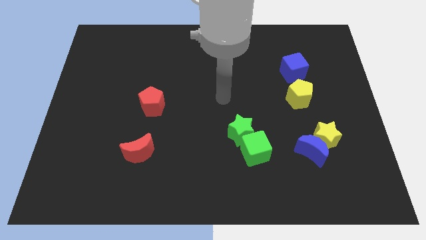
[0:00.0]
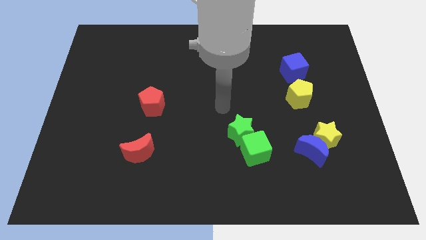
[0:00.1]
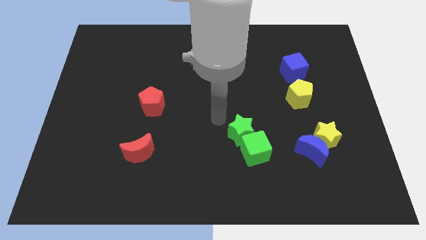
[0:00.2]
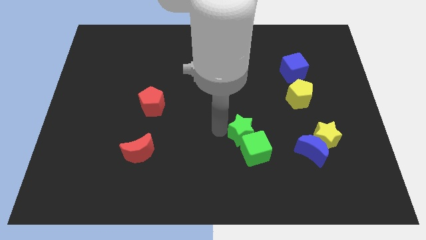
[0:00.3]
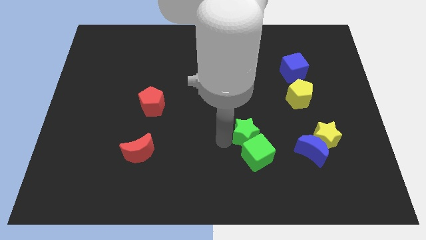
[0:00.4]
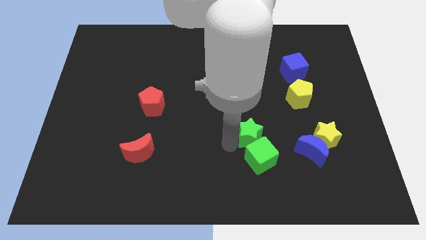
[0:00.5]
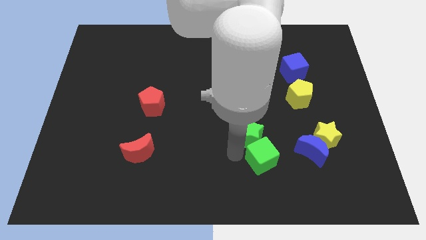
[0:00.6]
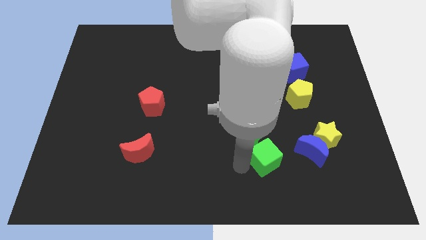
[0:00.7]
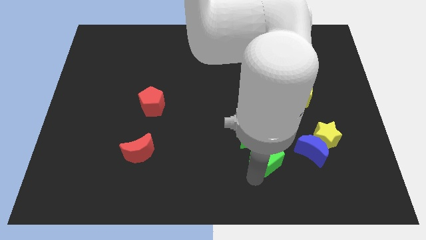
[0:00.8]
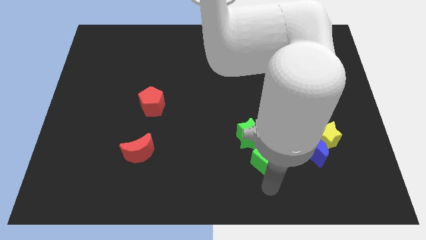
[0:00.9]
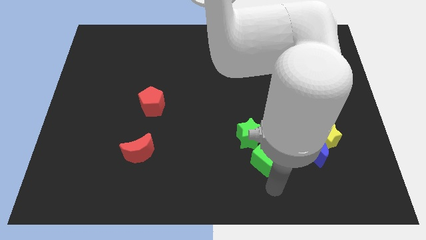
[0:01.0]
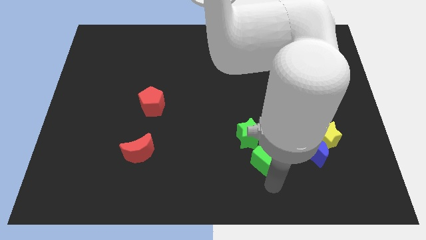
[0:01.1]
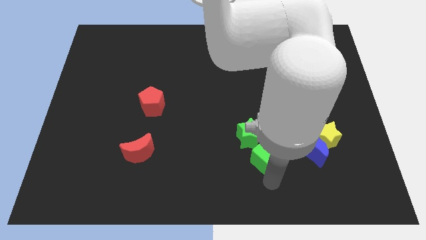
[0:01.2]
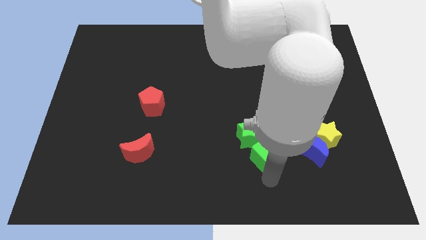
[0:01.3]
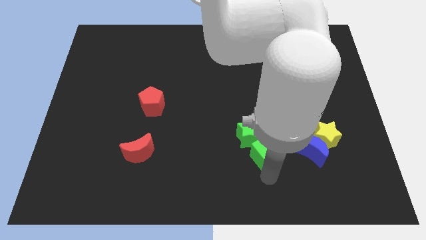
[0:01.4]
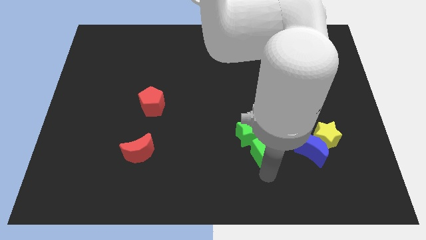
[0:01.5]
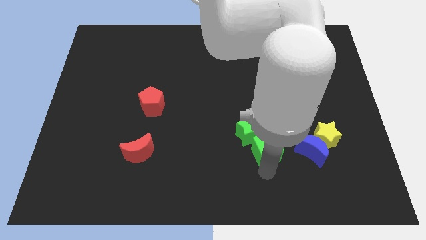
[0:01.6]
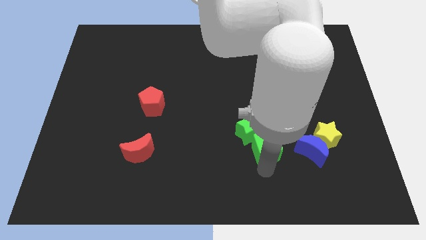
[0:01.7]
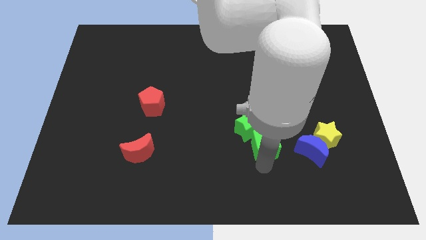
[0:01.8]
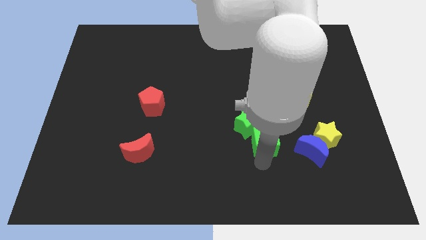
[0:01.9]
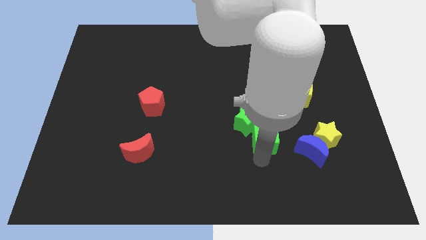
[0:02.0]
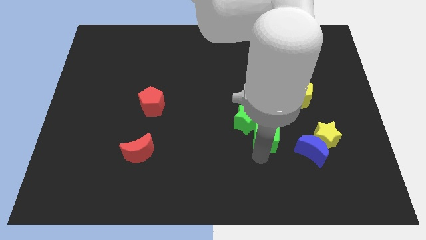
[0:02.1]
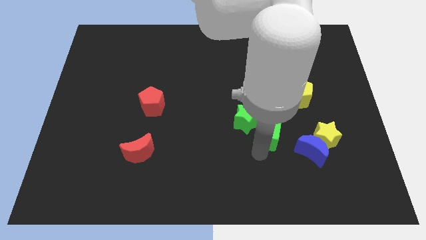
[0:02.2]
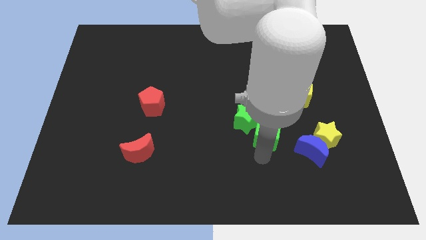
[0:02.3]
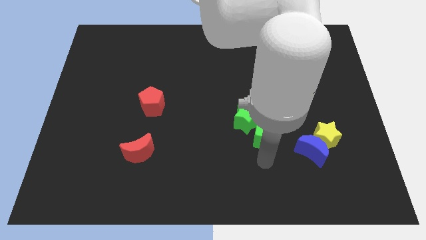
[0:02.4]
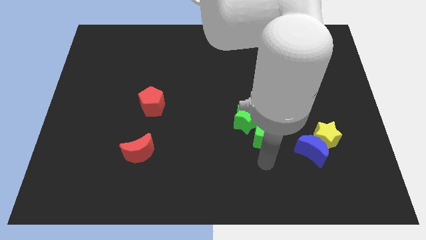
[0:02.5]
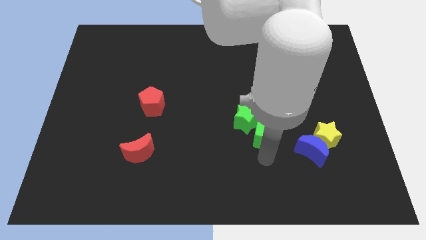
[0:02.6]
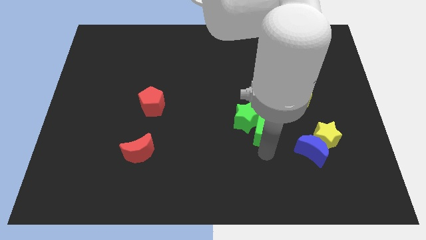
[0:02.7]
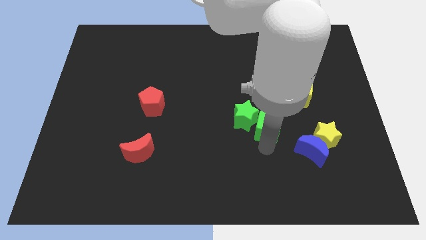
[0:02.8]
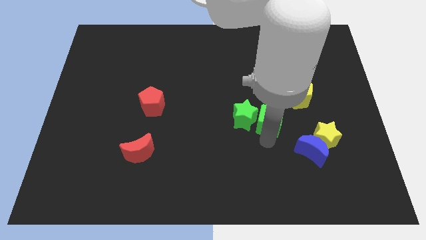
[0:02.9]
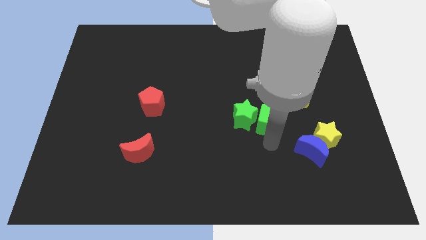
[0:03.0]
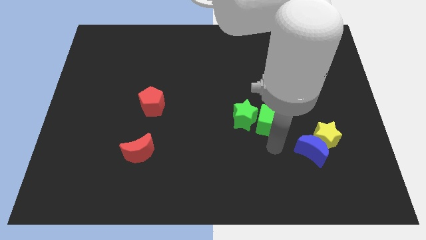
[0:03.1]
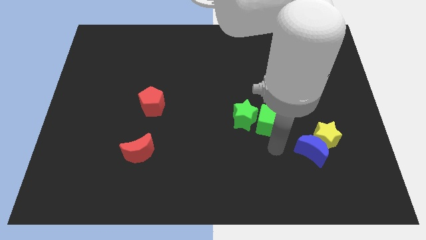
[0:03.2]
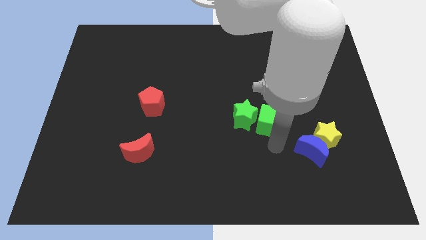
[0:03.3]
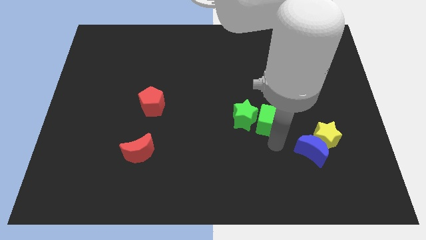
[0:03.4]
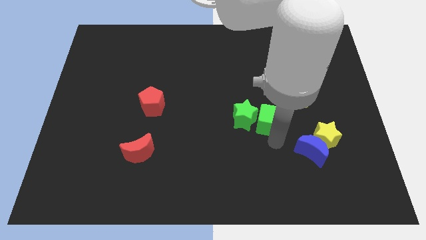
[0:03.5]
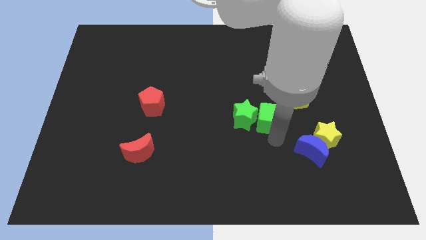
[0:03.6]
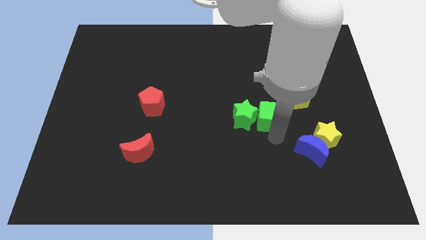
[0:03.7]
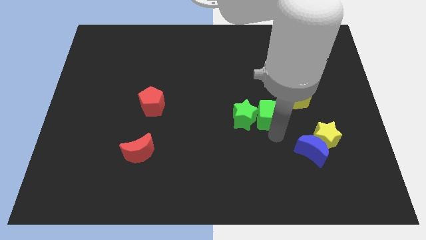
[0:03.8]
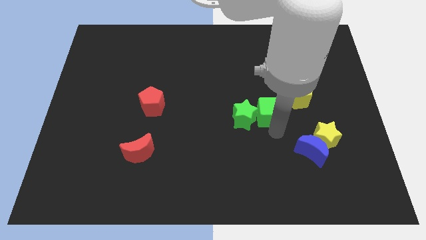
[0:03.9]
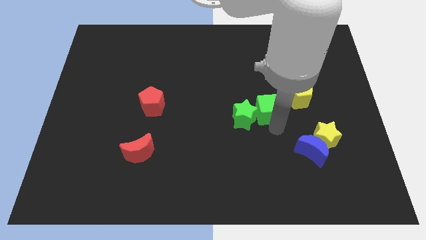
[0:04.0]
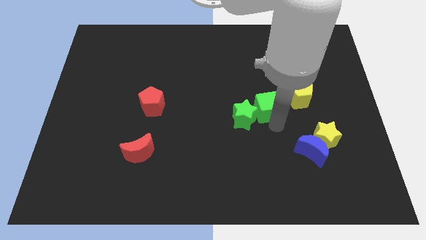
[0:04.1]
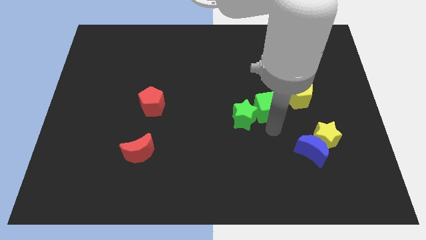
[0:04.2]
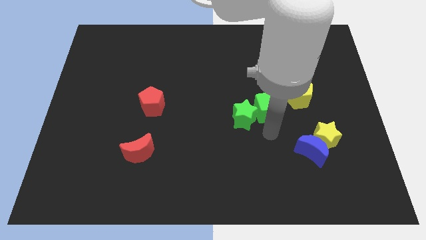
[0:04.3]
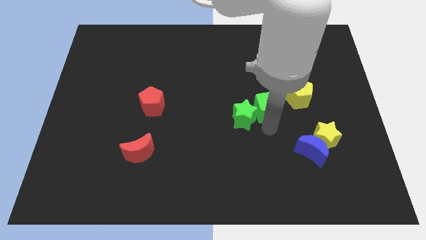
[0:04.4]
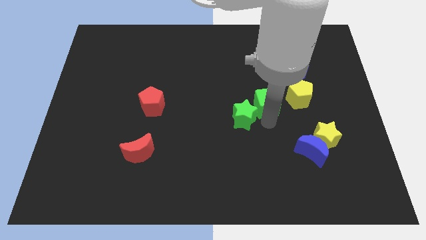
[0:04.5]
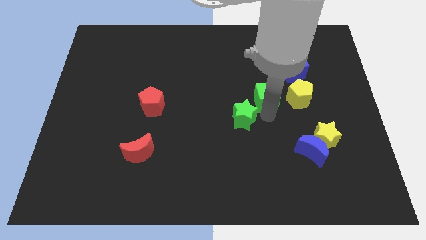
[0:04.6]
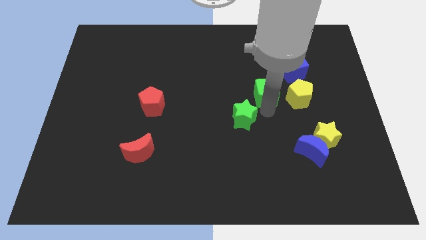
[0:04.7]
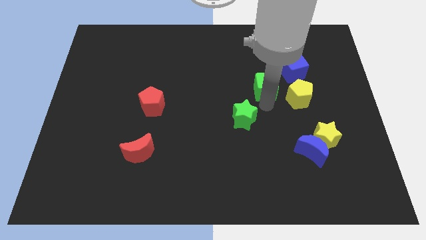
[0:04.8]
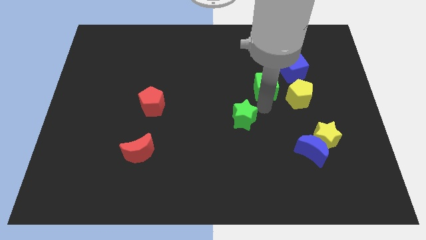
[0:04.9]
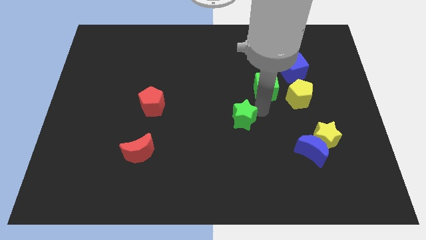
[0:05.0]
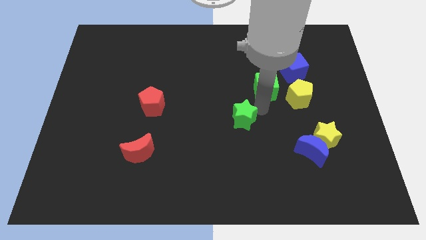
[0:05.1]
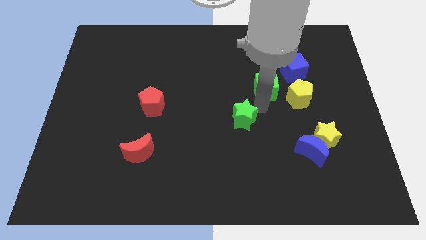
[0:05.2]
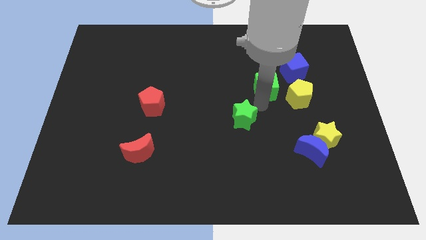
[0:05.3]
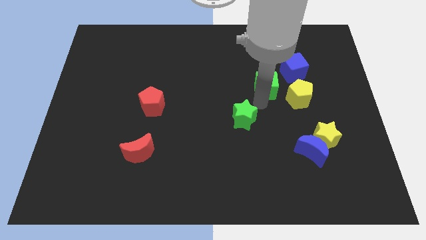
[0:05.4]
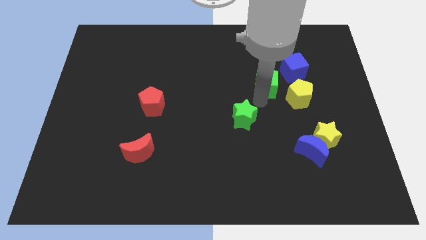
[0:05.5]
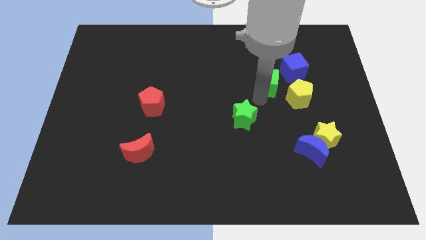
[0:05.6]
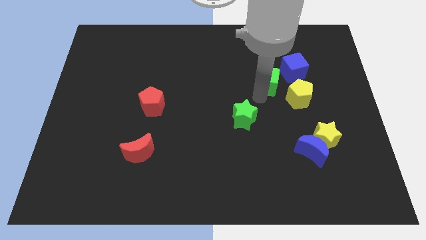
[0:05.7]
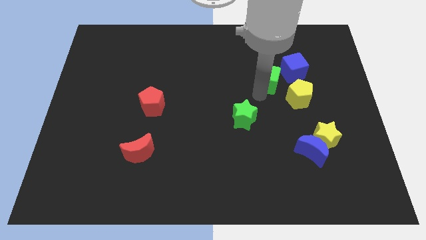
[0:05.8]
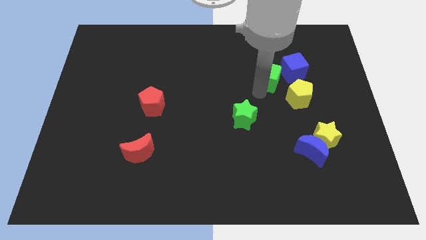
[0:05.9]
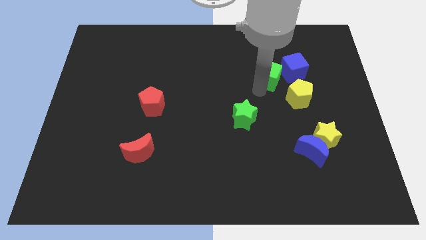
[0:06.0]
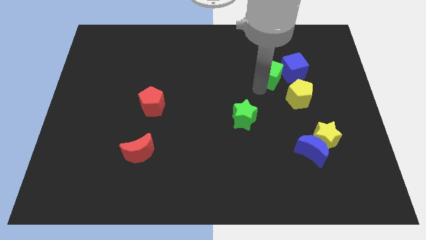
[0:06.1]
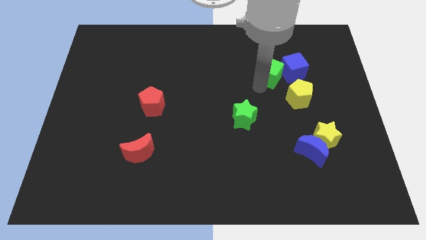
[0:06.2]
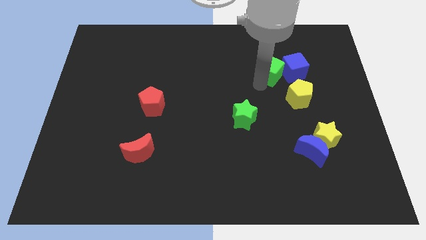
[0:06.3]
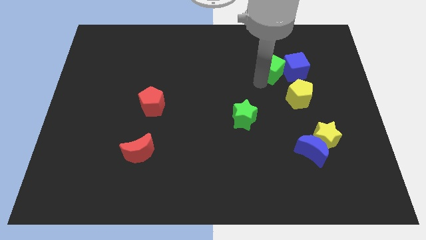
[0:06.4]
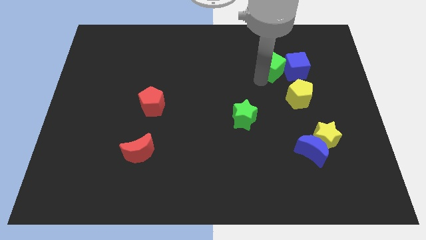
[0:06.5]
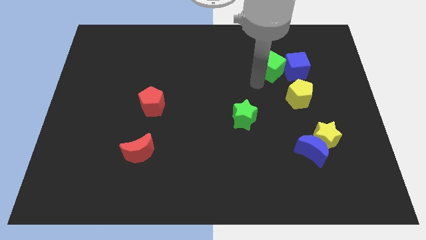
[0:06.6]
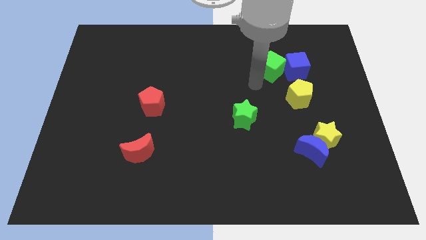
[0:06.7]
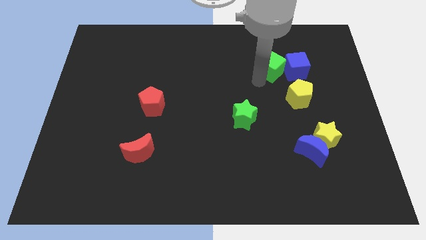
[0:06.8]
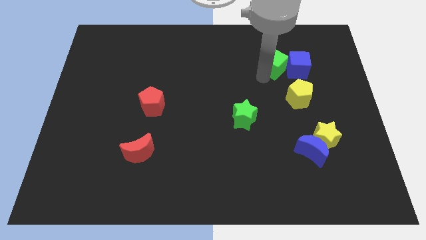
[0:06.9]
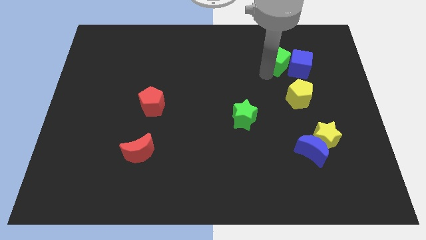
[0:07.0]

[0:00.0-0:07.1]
slide the green cube above the yellow pentagon
